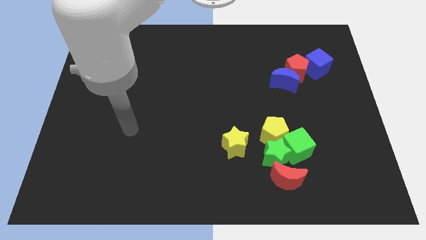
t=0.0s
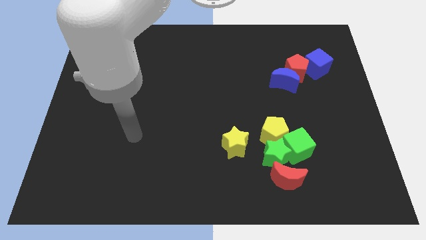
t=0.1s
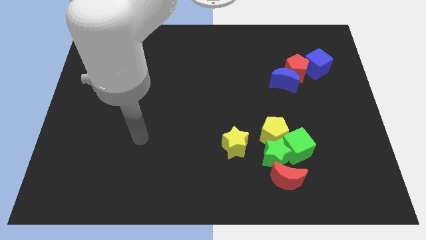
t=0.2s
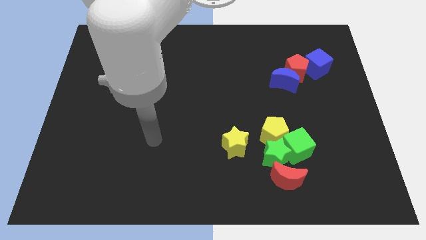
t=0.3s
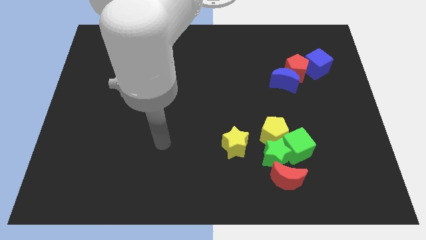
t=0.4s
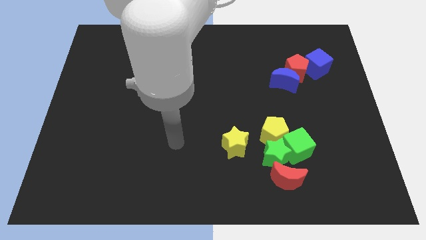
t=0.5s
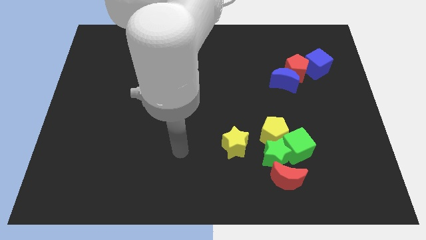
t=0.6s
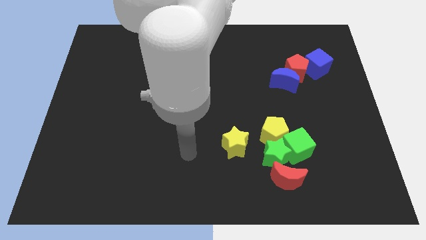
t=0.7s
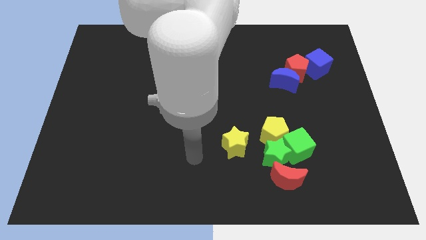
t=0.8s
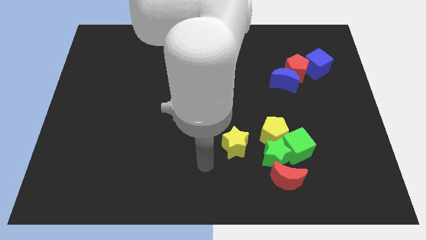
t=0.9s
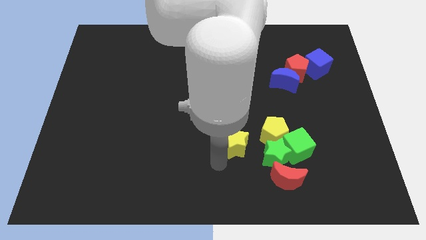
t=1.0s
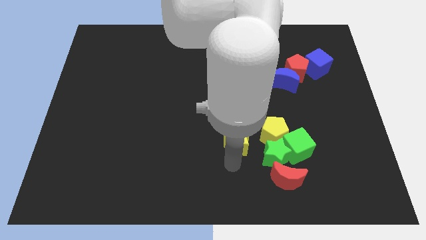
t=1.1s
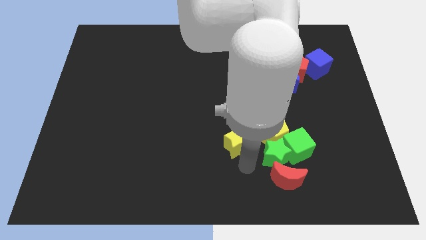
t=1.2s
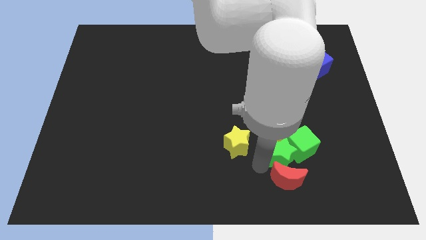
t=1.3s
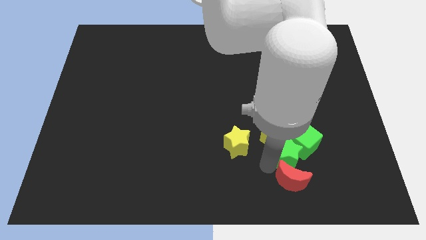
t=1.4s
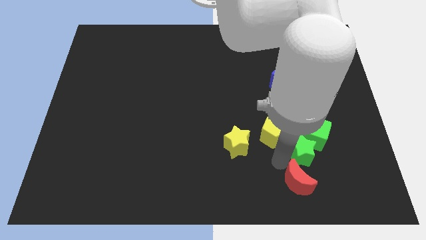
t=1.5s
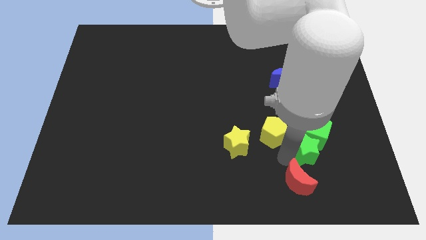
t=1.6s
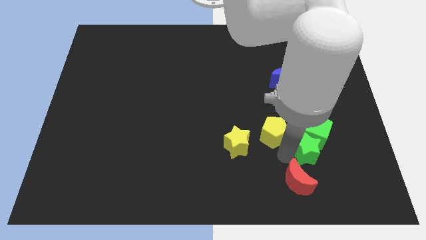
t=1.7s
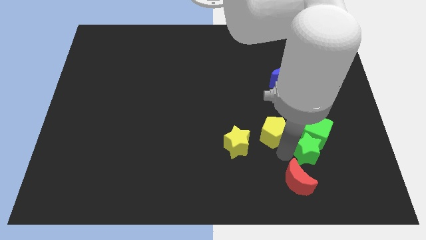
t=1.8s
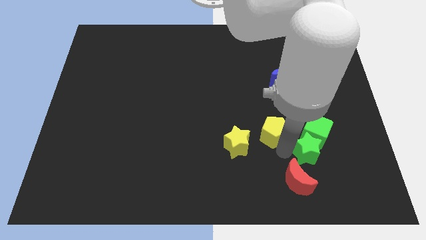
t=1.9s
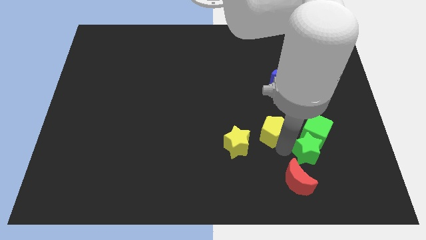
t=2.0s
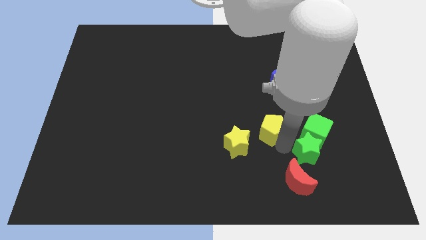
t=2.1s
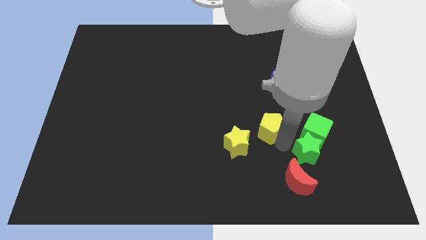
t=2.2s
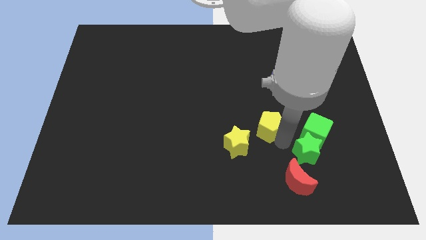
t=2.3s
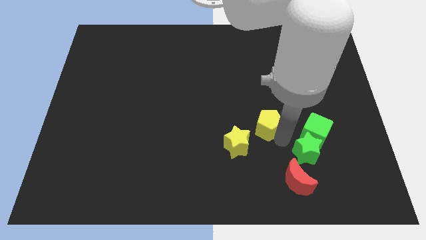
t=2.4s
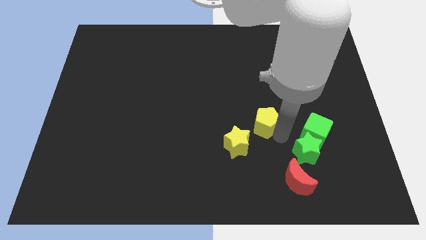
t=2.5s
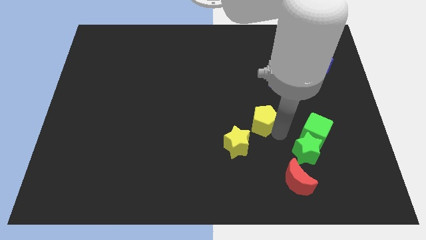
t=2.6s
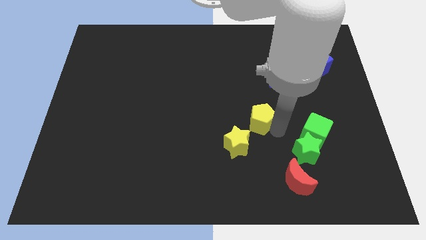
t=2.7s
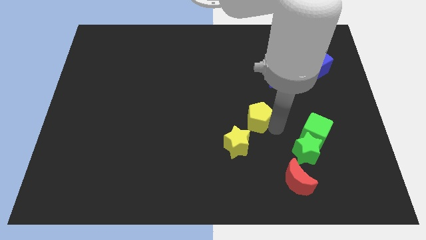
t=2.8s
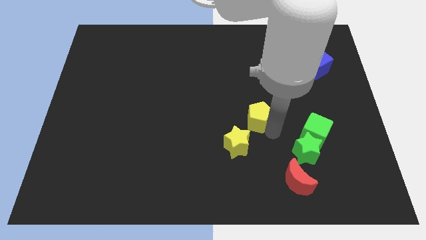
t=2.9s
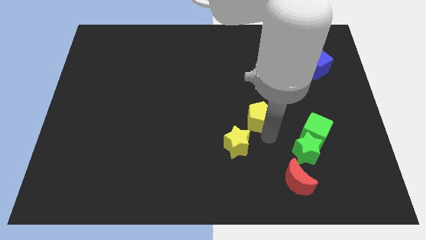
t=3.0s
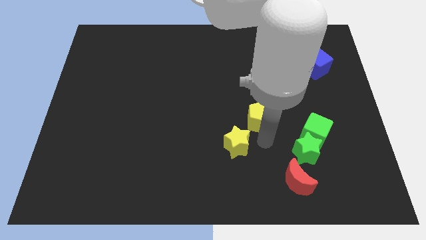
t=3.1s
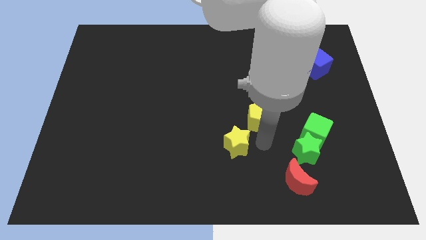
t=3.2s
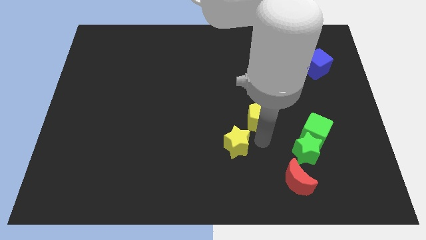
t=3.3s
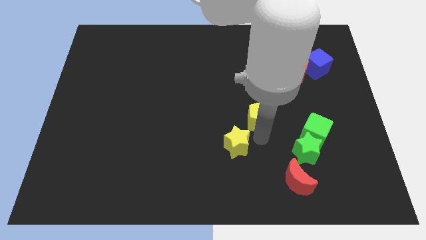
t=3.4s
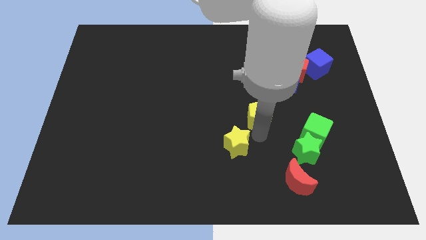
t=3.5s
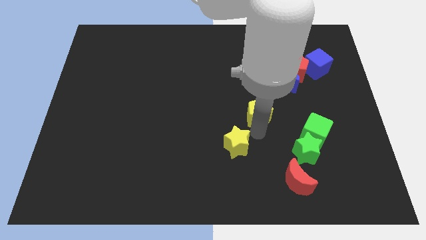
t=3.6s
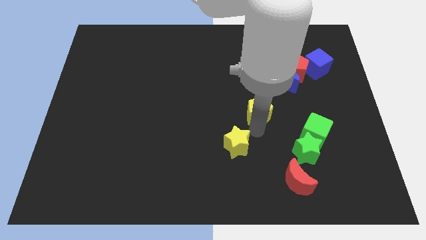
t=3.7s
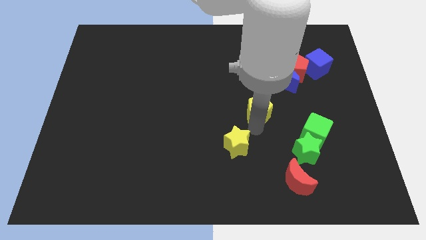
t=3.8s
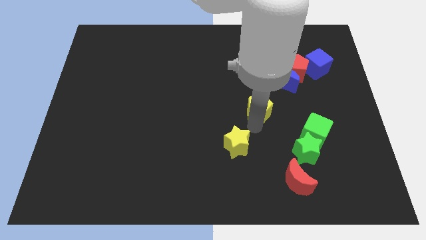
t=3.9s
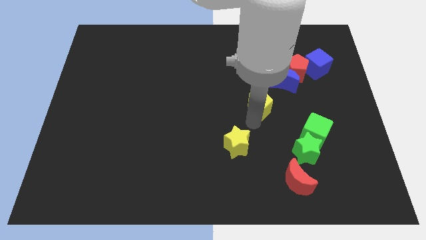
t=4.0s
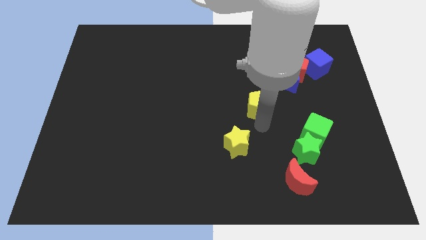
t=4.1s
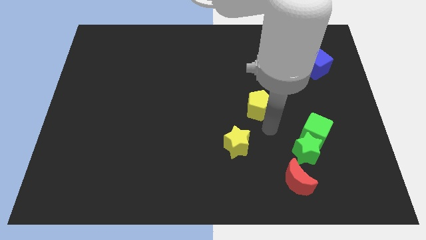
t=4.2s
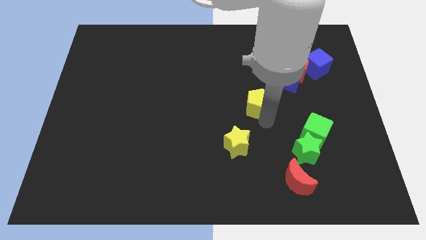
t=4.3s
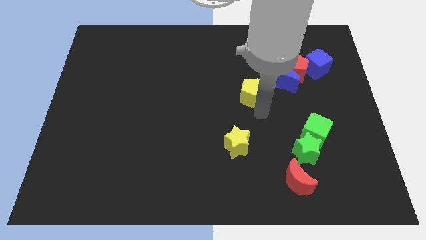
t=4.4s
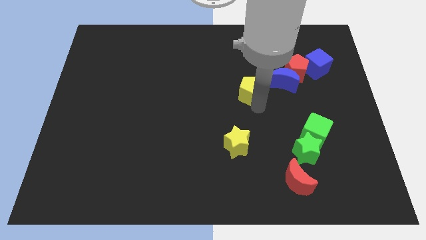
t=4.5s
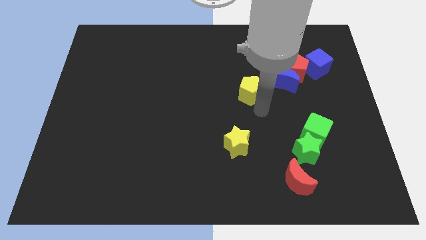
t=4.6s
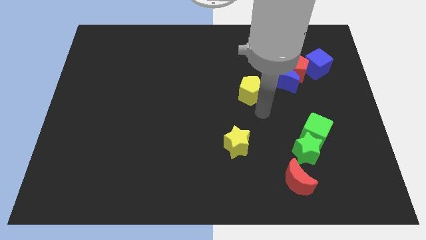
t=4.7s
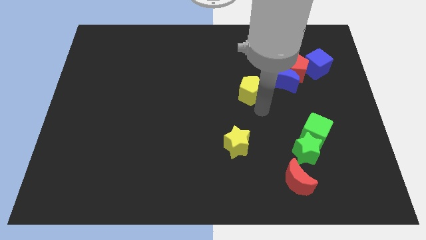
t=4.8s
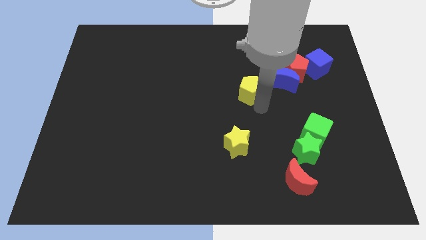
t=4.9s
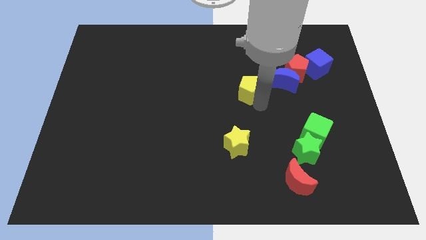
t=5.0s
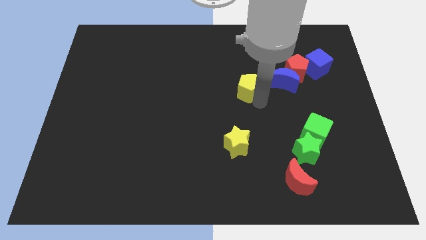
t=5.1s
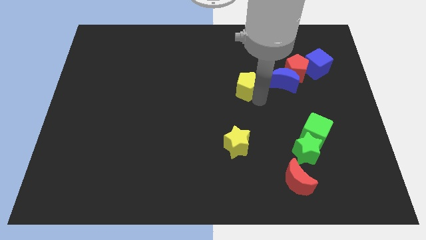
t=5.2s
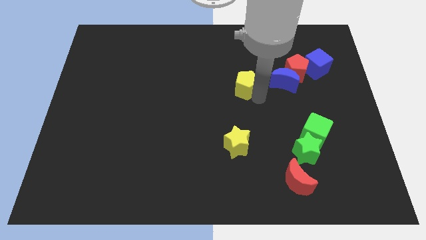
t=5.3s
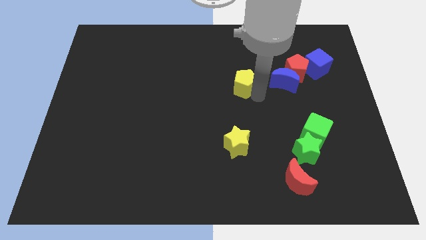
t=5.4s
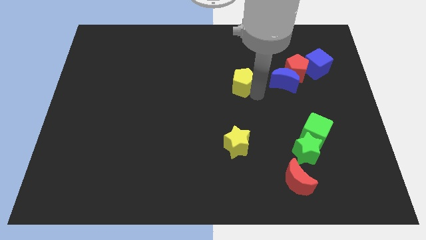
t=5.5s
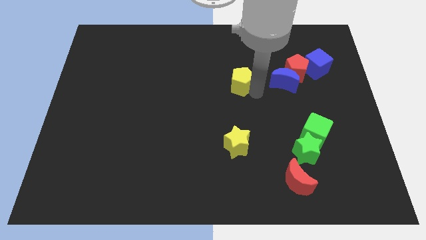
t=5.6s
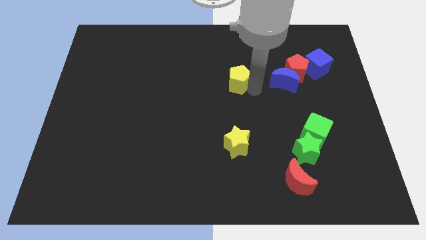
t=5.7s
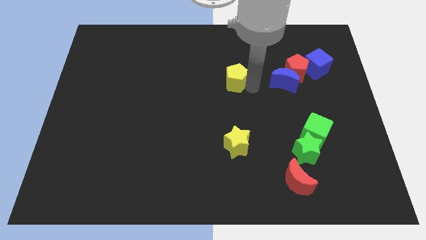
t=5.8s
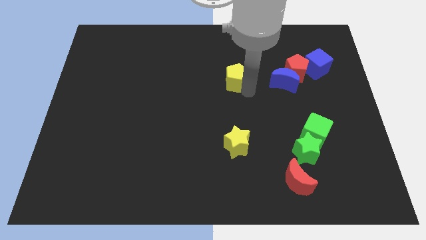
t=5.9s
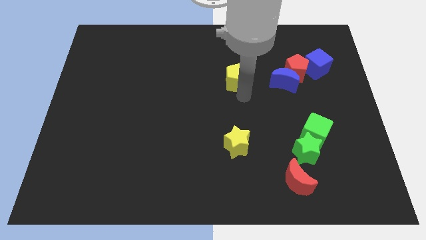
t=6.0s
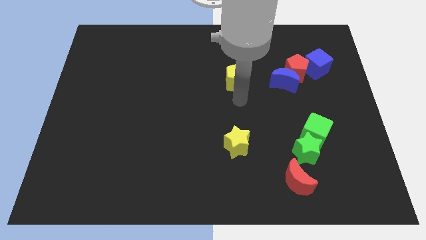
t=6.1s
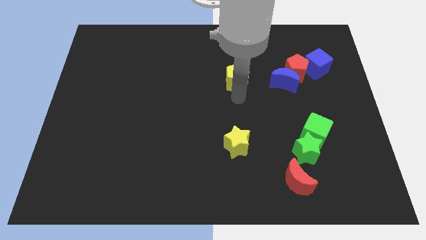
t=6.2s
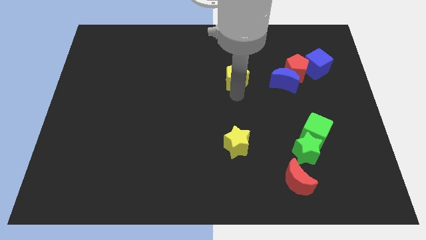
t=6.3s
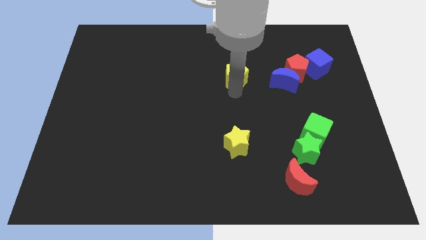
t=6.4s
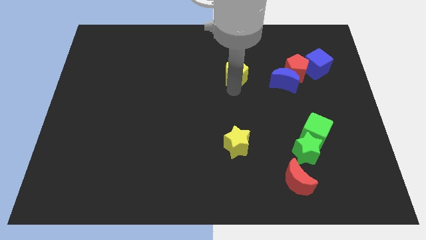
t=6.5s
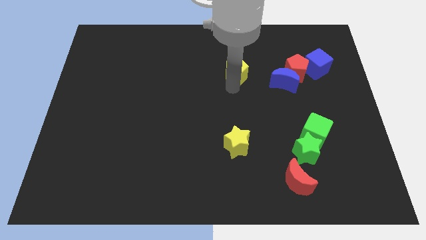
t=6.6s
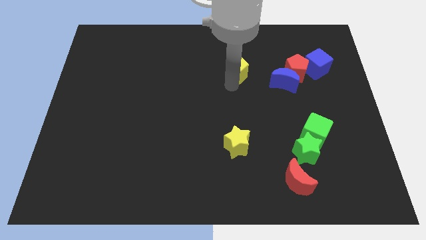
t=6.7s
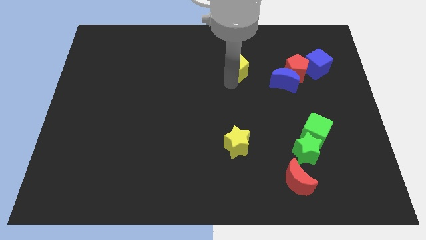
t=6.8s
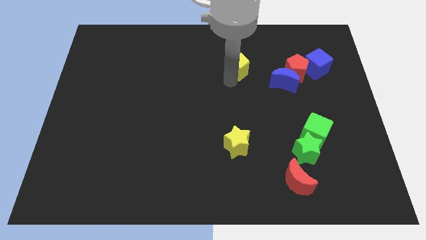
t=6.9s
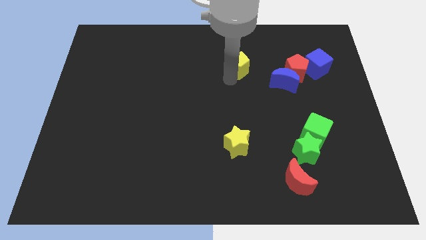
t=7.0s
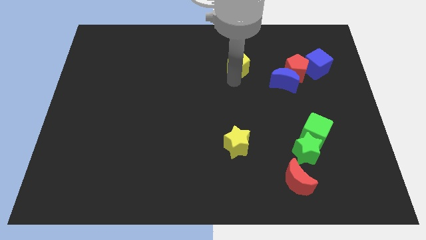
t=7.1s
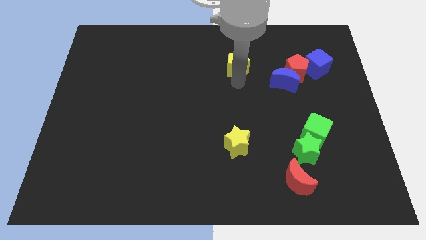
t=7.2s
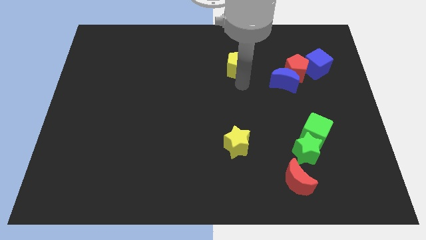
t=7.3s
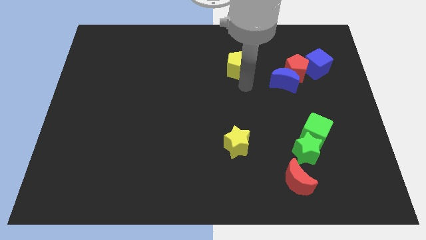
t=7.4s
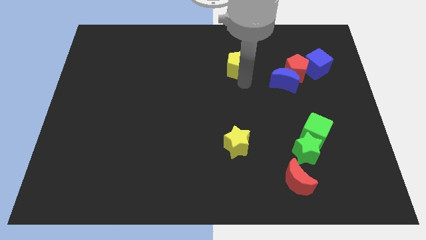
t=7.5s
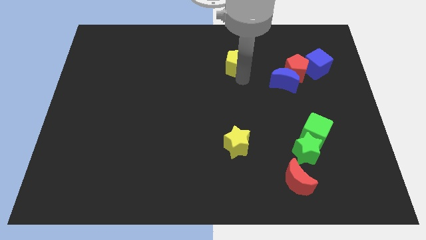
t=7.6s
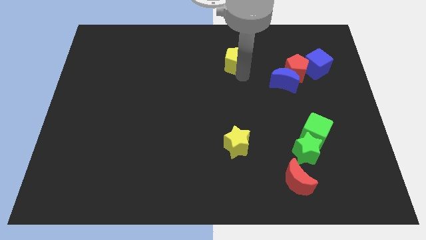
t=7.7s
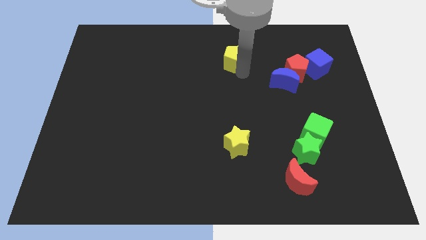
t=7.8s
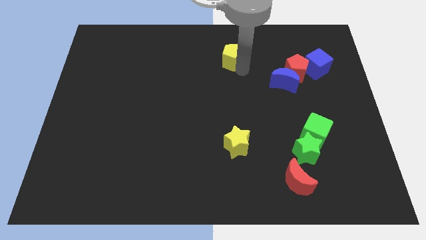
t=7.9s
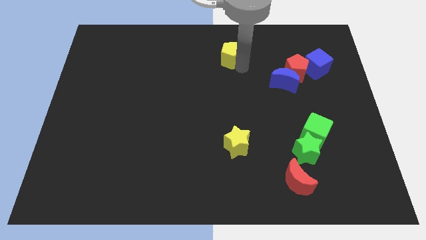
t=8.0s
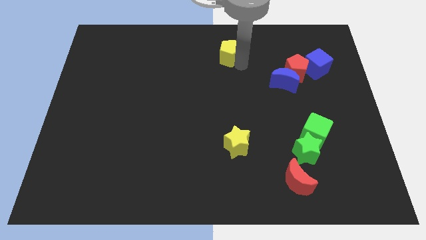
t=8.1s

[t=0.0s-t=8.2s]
put the yellow pentagon to the top
